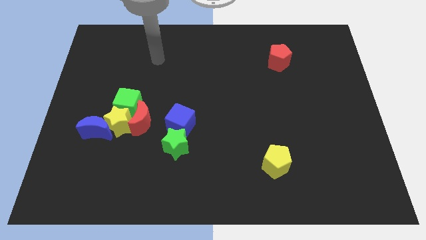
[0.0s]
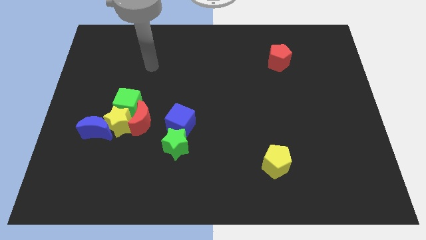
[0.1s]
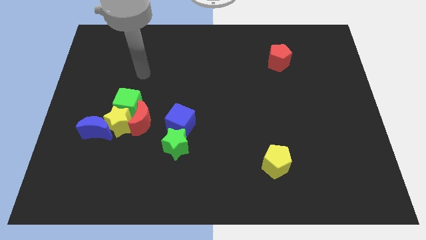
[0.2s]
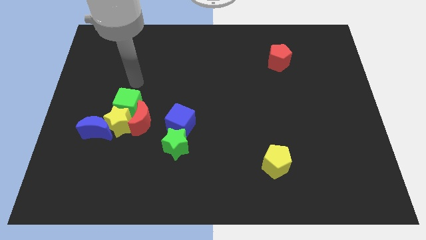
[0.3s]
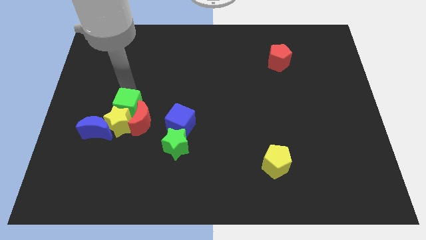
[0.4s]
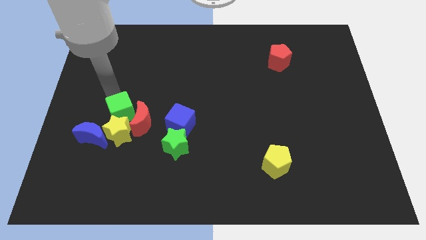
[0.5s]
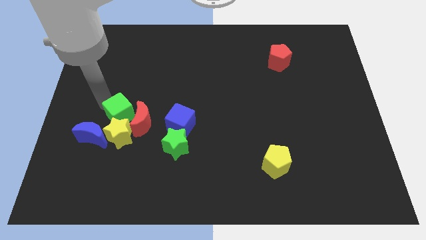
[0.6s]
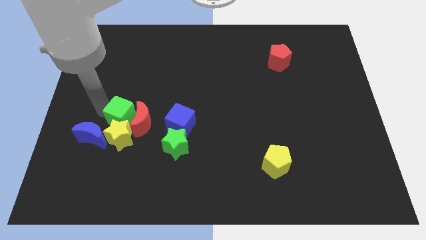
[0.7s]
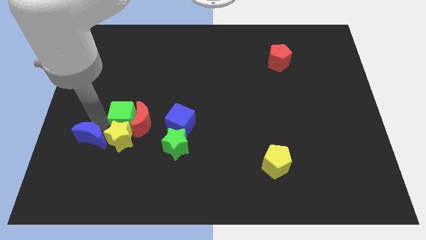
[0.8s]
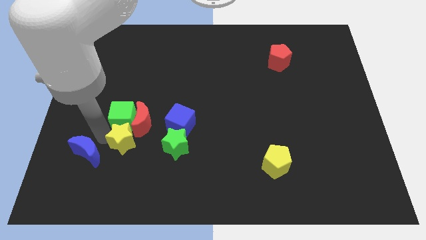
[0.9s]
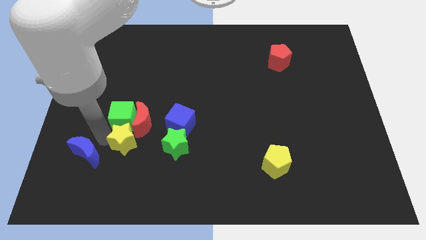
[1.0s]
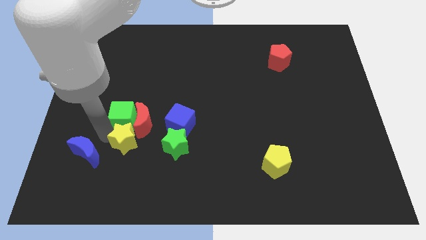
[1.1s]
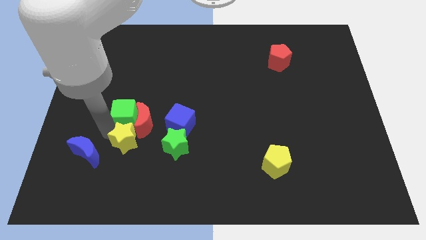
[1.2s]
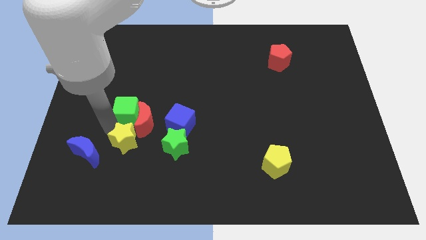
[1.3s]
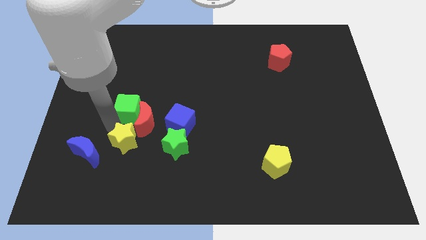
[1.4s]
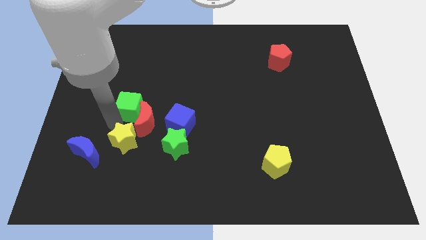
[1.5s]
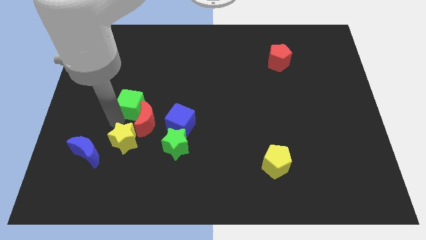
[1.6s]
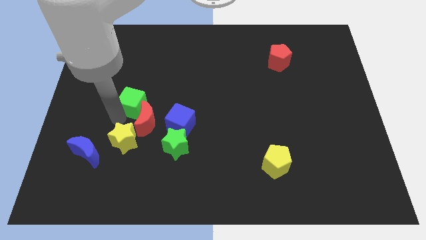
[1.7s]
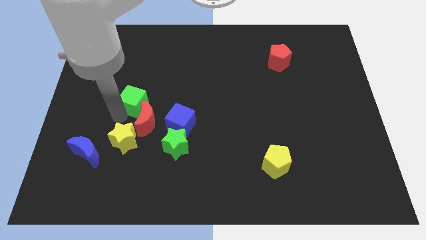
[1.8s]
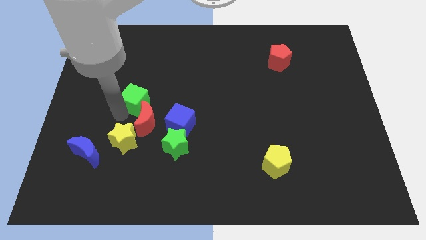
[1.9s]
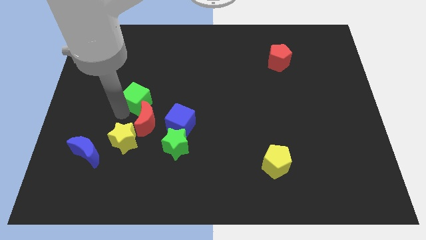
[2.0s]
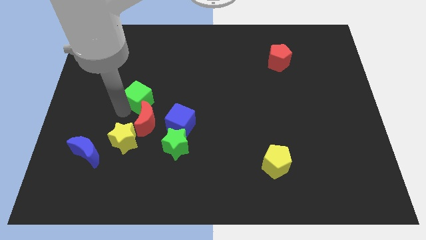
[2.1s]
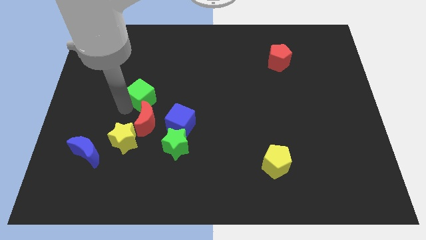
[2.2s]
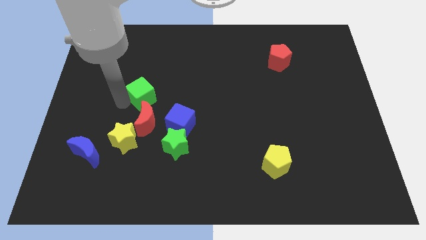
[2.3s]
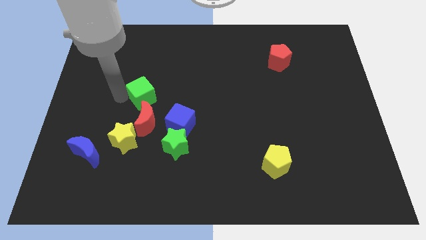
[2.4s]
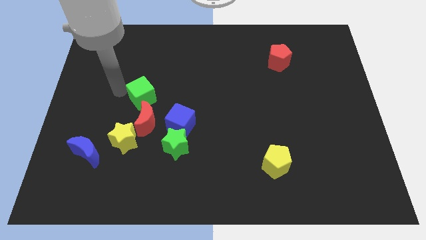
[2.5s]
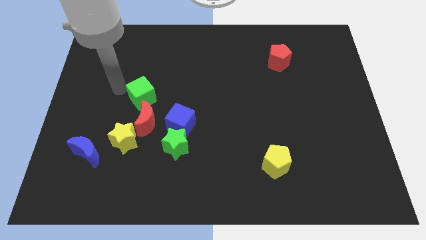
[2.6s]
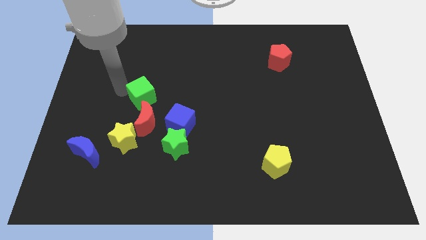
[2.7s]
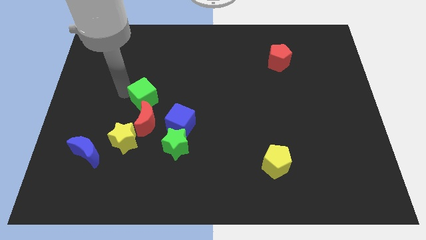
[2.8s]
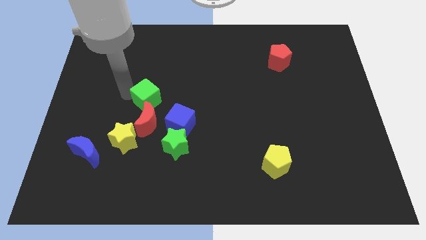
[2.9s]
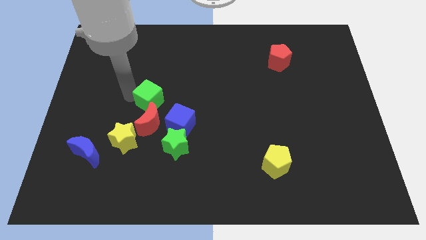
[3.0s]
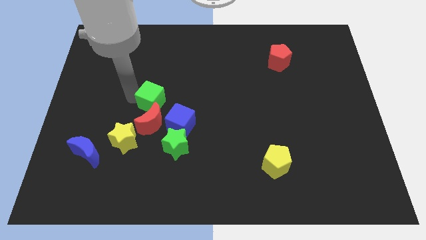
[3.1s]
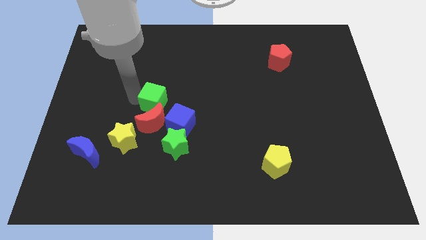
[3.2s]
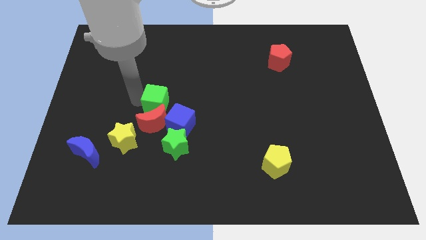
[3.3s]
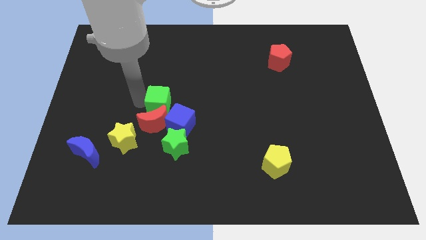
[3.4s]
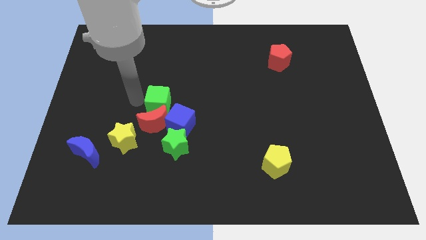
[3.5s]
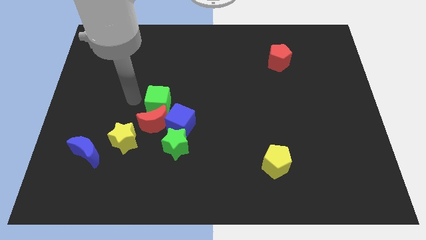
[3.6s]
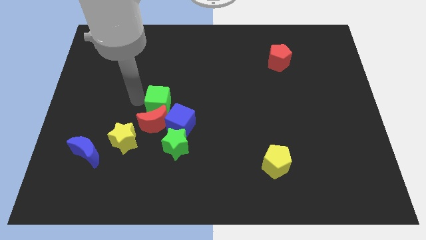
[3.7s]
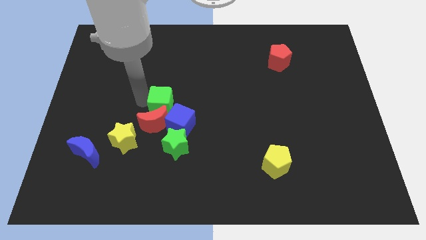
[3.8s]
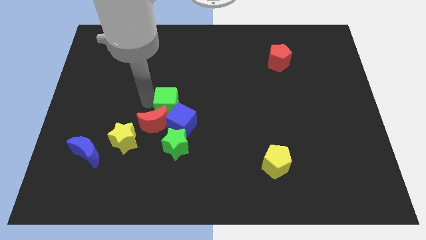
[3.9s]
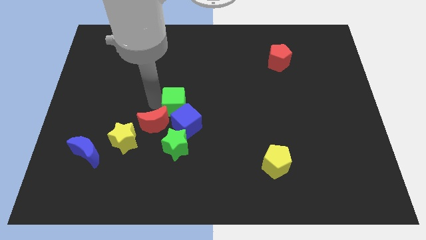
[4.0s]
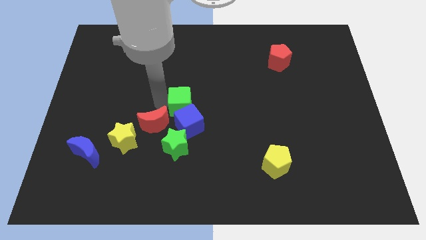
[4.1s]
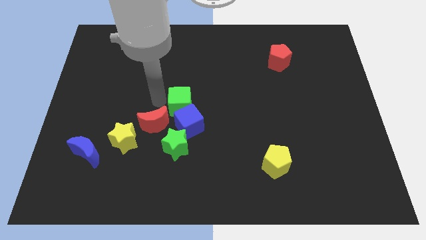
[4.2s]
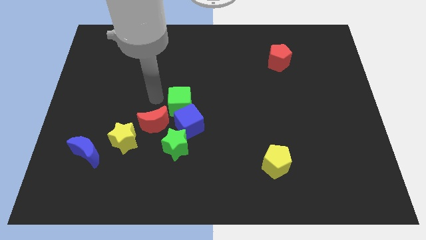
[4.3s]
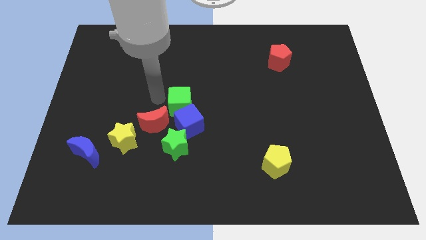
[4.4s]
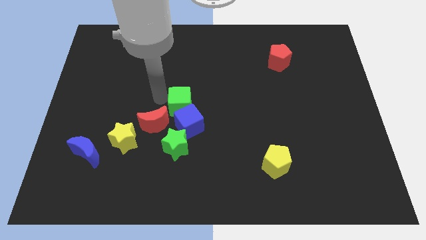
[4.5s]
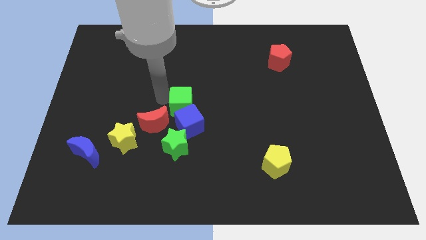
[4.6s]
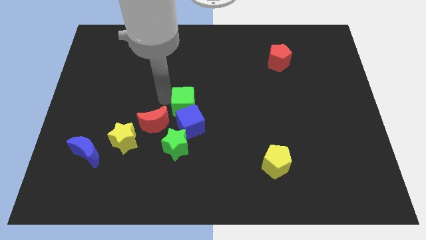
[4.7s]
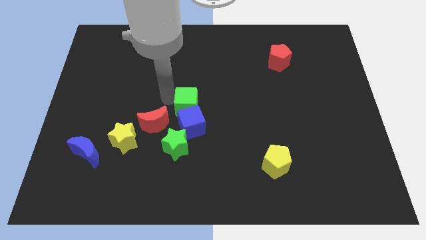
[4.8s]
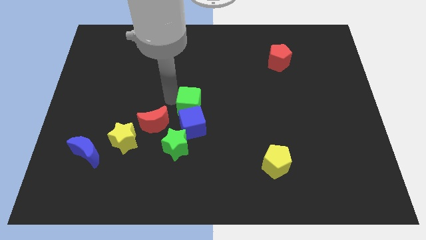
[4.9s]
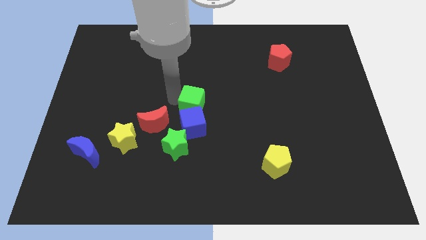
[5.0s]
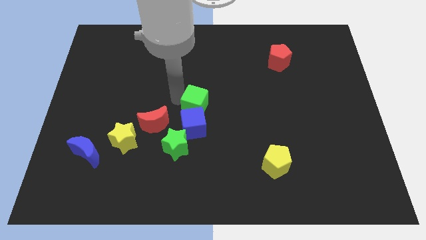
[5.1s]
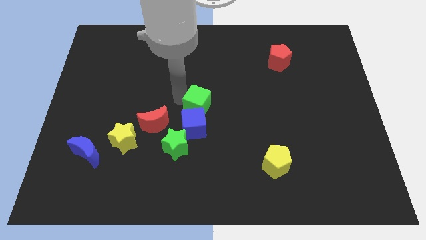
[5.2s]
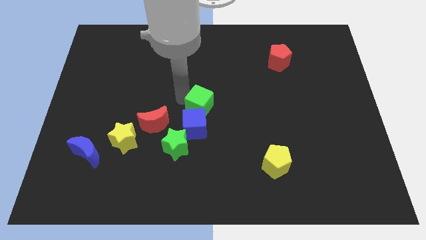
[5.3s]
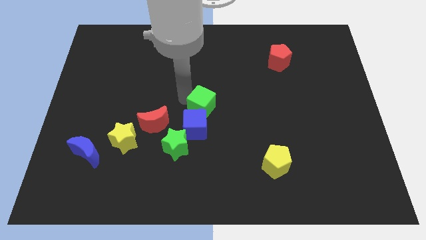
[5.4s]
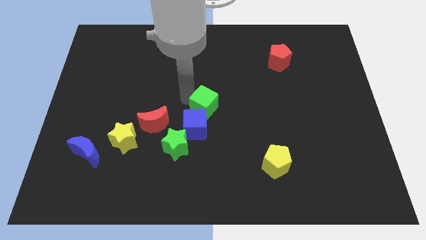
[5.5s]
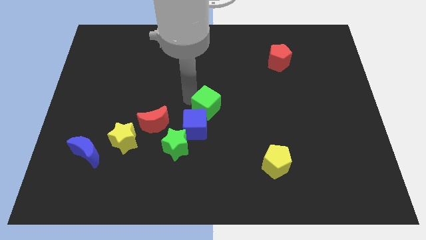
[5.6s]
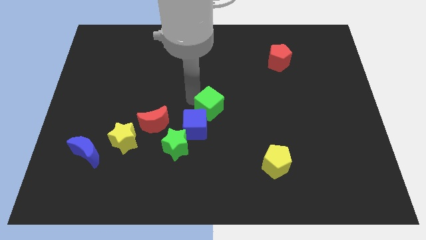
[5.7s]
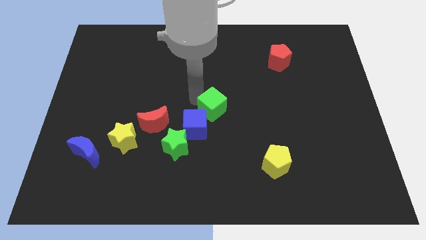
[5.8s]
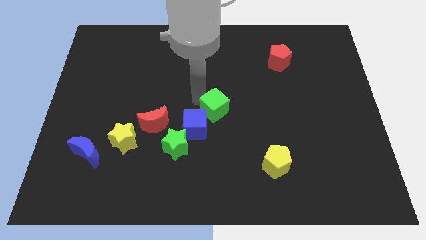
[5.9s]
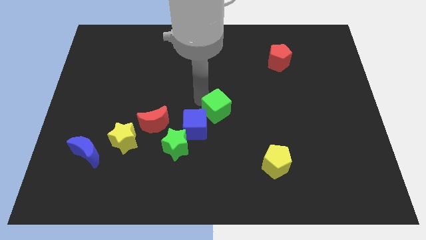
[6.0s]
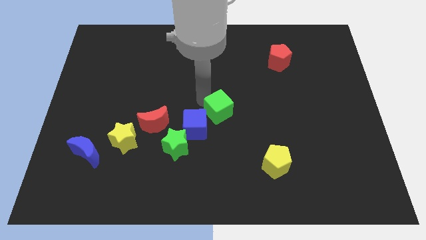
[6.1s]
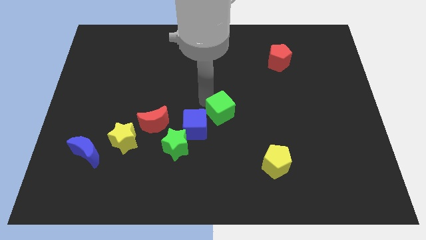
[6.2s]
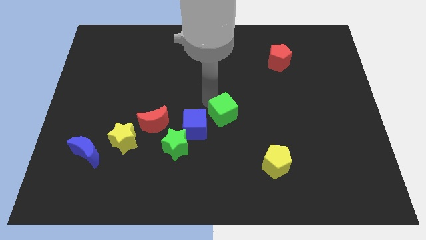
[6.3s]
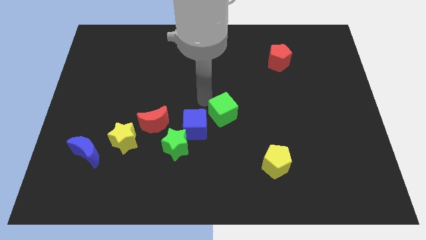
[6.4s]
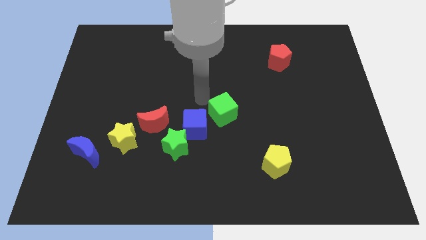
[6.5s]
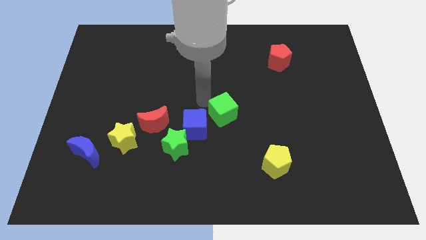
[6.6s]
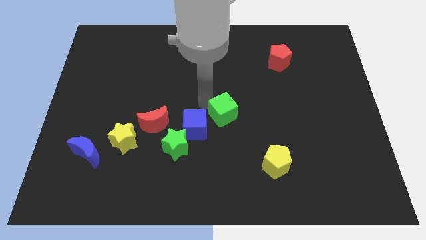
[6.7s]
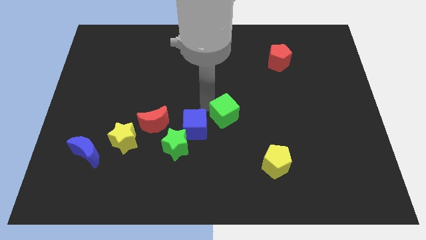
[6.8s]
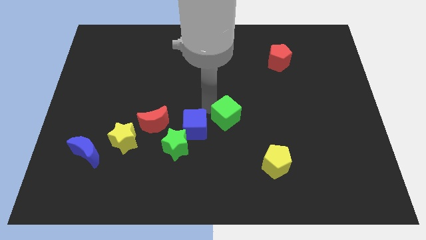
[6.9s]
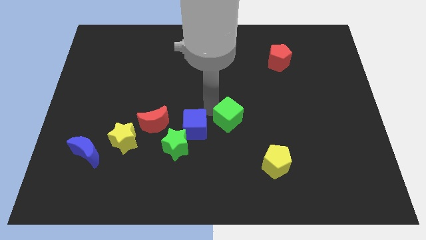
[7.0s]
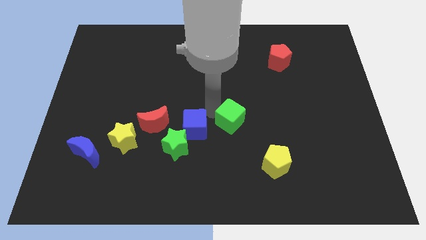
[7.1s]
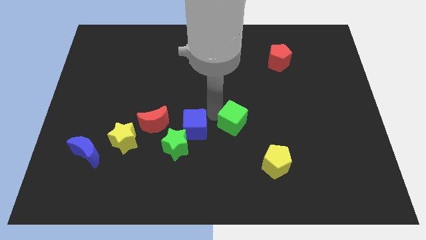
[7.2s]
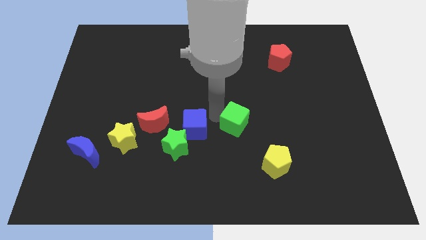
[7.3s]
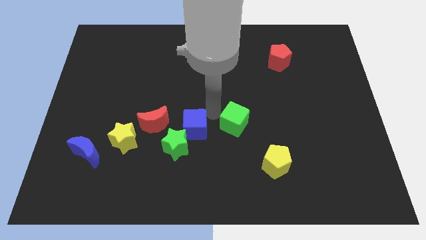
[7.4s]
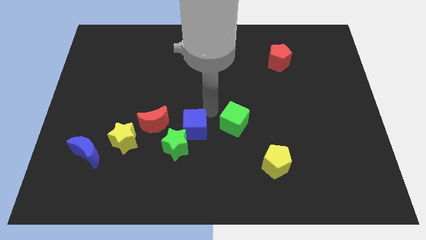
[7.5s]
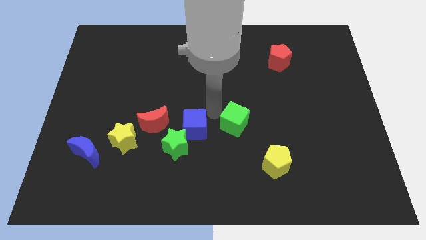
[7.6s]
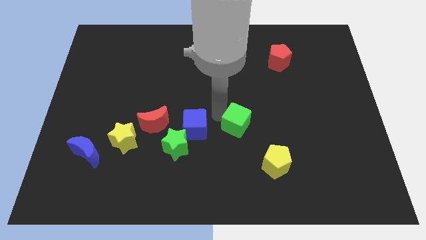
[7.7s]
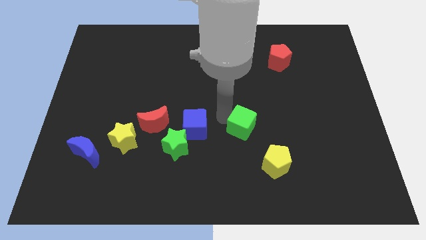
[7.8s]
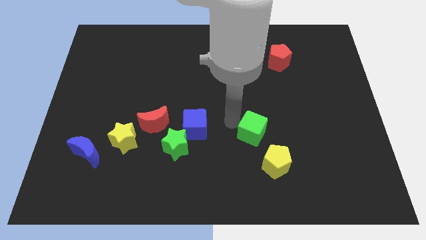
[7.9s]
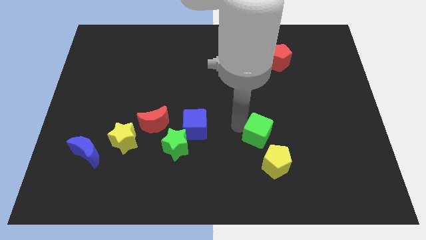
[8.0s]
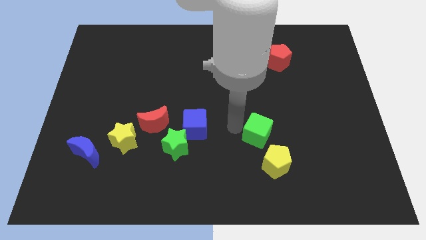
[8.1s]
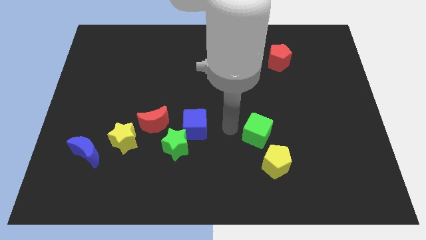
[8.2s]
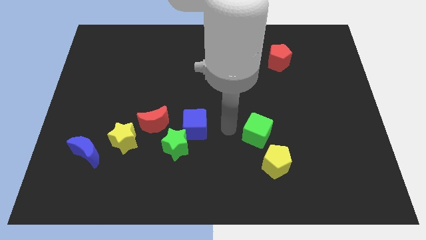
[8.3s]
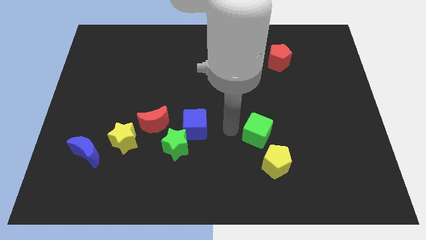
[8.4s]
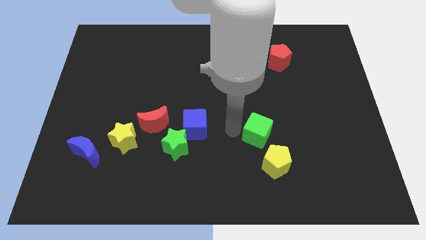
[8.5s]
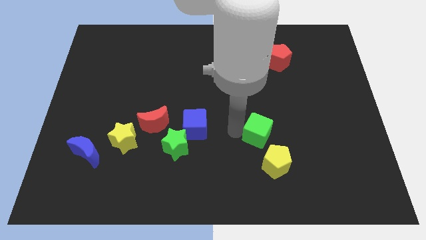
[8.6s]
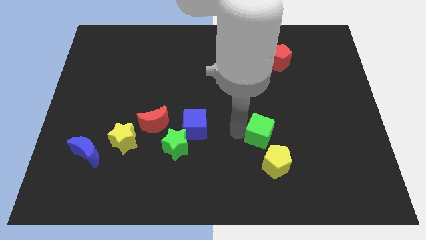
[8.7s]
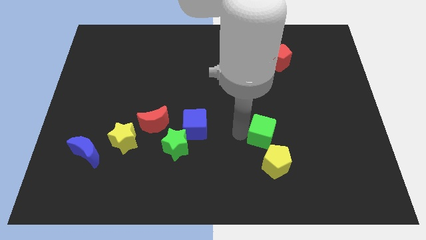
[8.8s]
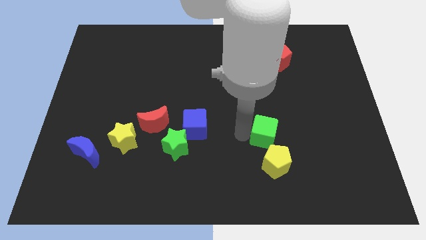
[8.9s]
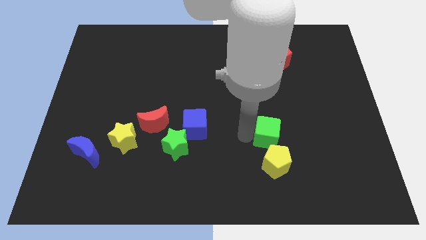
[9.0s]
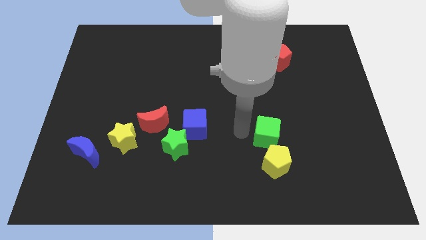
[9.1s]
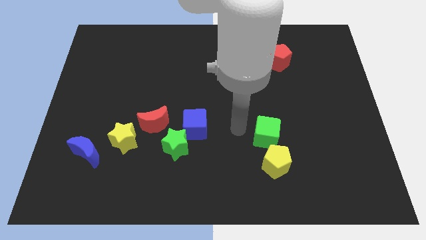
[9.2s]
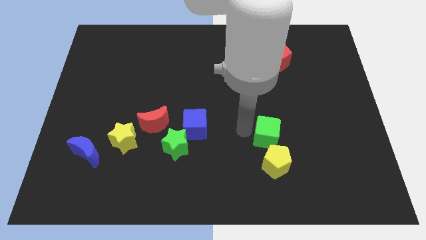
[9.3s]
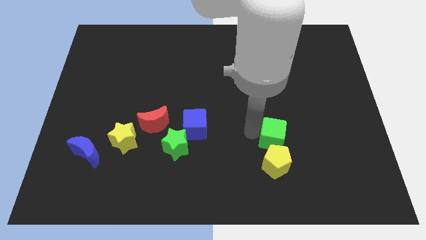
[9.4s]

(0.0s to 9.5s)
move the green cube to the top right of the yellow pentagon
